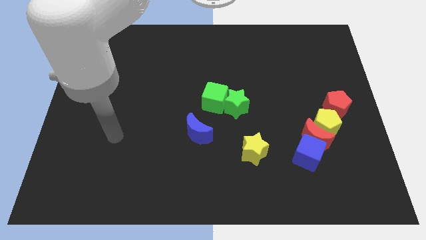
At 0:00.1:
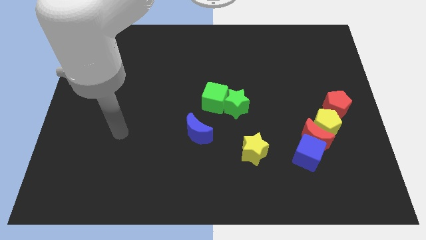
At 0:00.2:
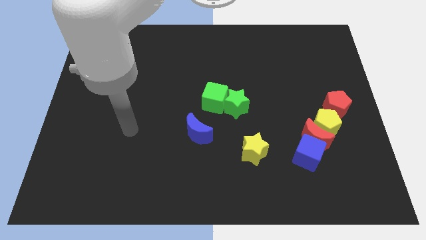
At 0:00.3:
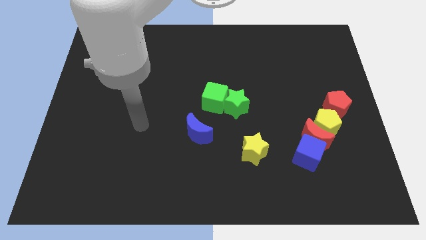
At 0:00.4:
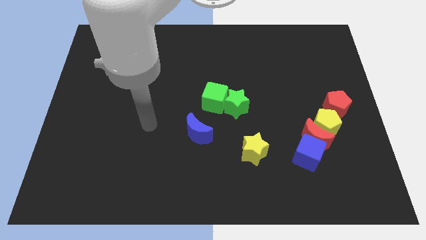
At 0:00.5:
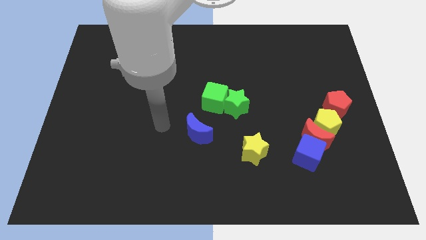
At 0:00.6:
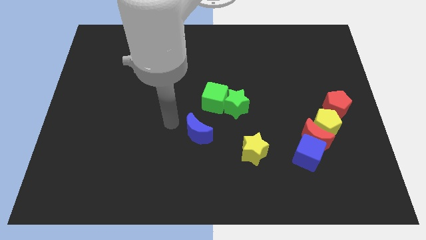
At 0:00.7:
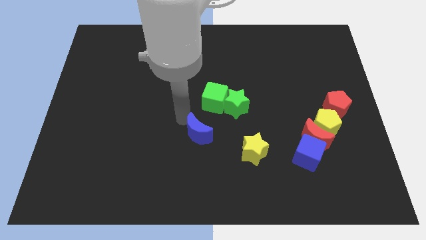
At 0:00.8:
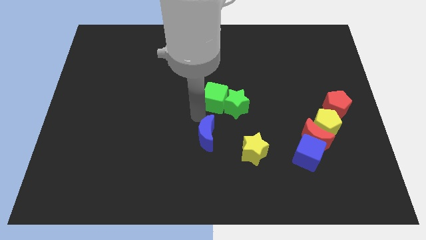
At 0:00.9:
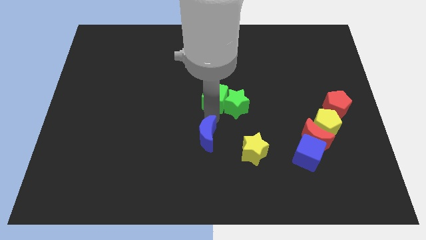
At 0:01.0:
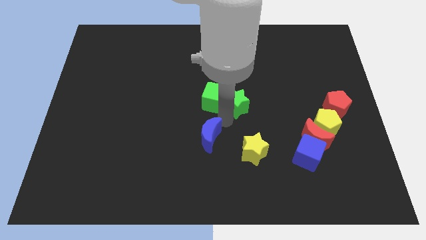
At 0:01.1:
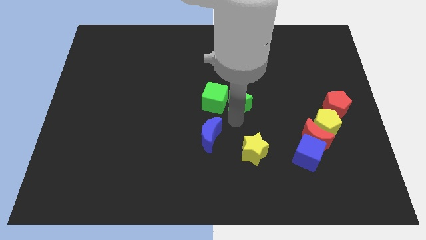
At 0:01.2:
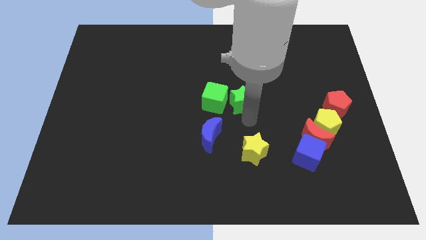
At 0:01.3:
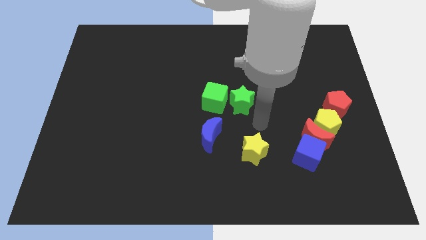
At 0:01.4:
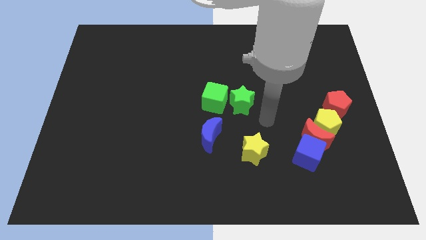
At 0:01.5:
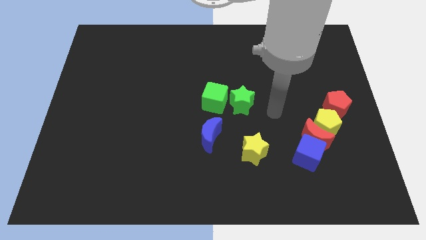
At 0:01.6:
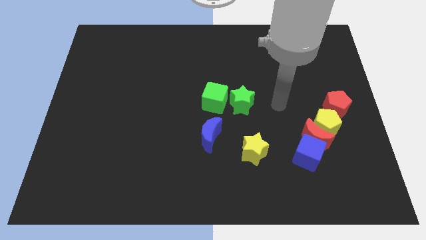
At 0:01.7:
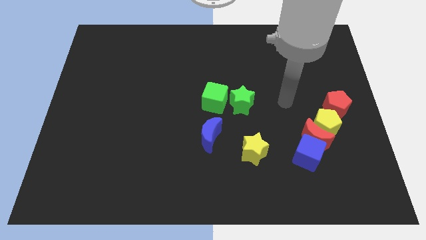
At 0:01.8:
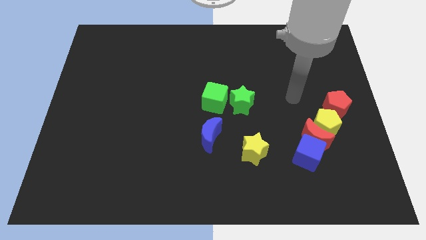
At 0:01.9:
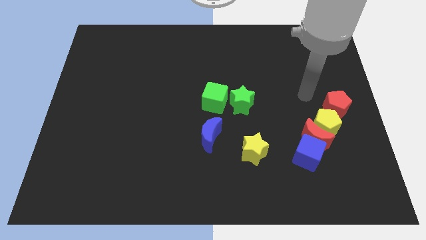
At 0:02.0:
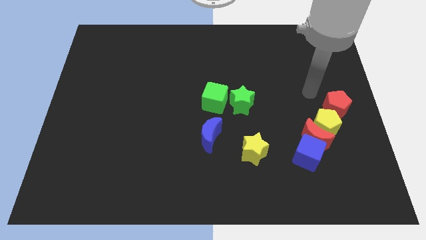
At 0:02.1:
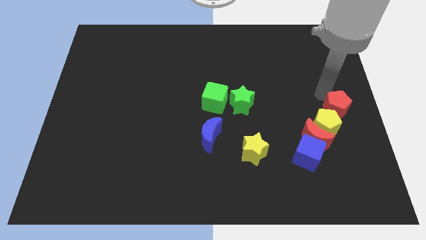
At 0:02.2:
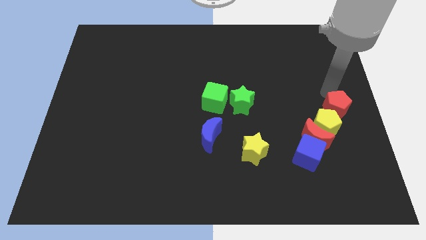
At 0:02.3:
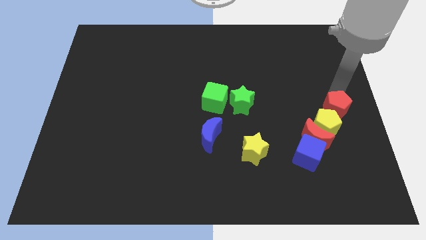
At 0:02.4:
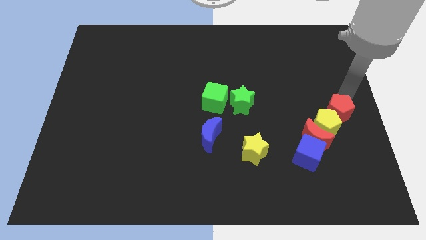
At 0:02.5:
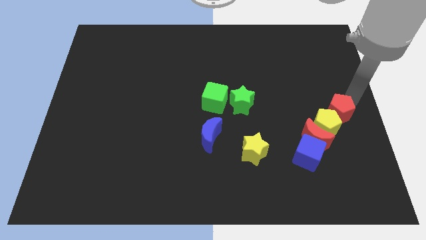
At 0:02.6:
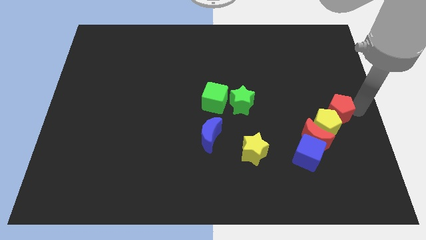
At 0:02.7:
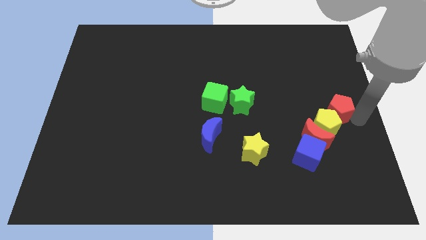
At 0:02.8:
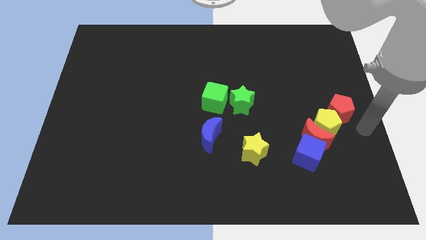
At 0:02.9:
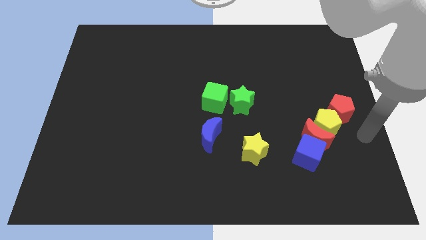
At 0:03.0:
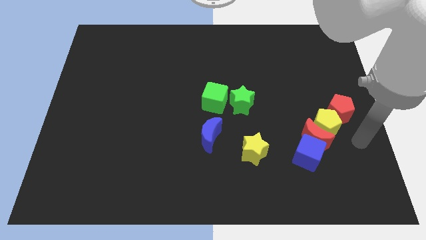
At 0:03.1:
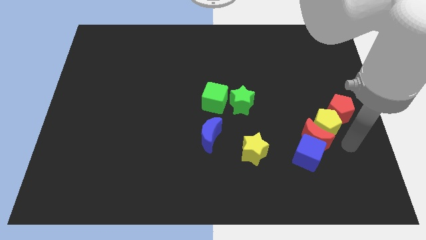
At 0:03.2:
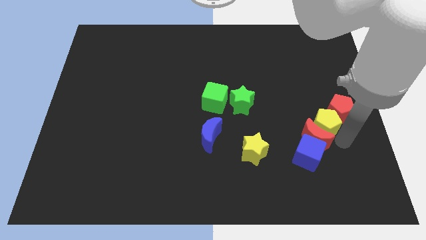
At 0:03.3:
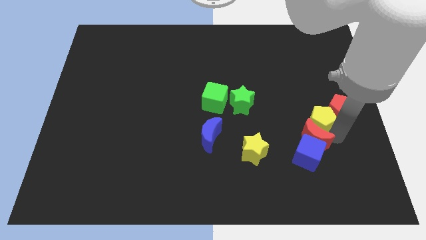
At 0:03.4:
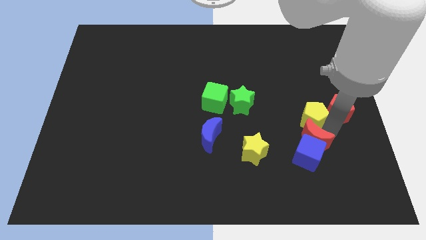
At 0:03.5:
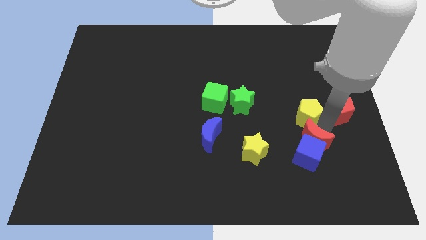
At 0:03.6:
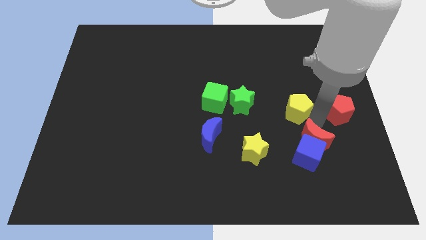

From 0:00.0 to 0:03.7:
push the yellow pentagon a little up and to the left diagonally

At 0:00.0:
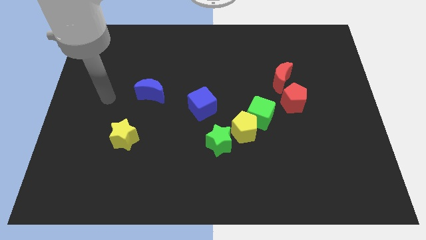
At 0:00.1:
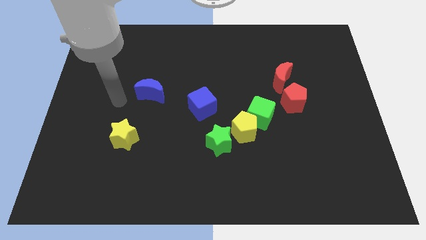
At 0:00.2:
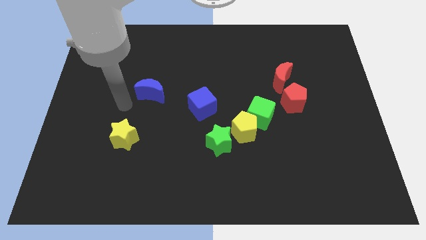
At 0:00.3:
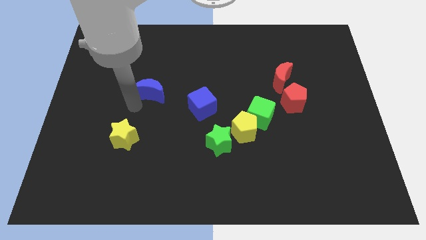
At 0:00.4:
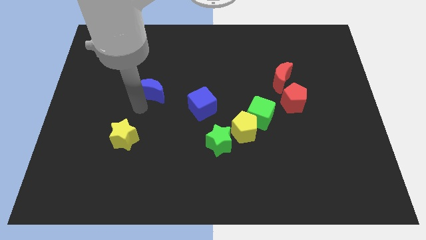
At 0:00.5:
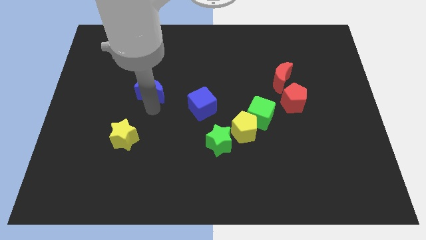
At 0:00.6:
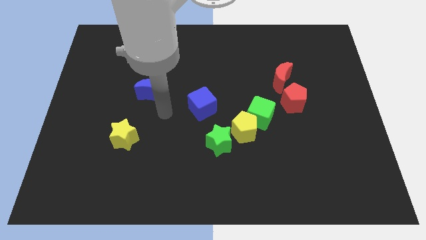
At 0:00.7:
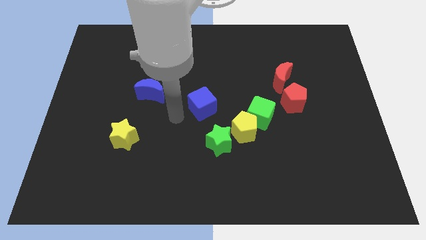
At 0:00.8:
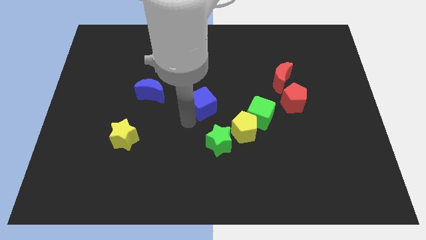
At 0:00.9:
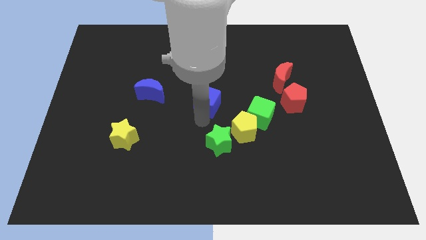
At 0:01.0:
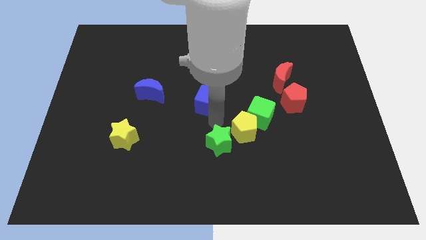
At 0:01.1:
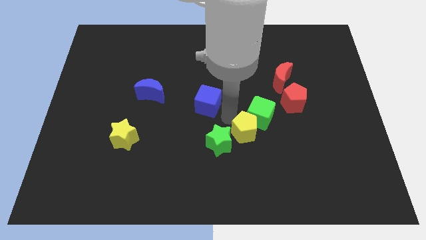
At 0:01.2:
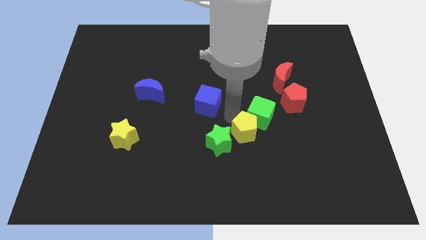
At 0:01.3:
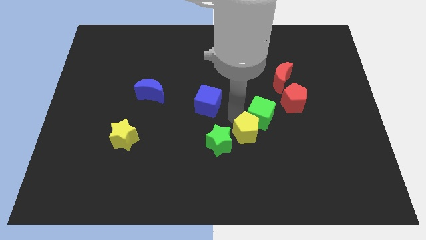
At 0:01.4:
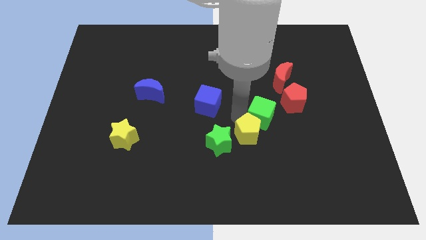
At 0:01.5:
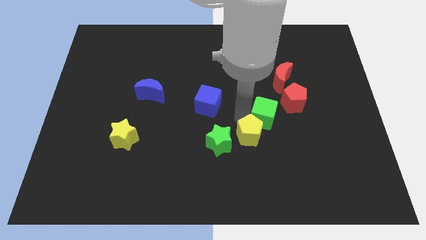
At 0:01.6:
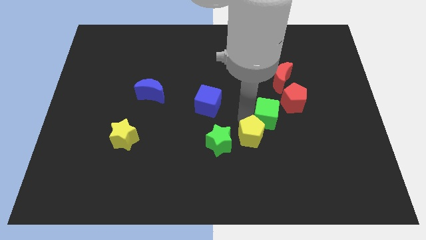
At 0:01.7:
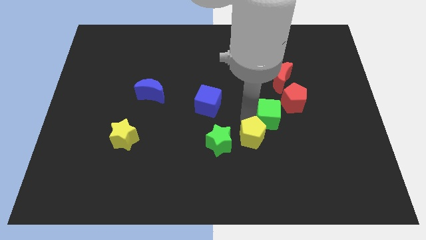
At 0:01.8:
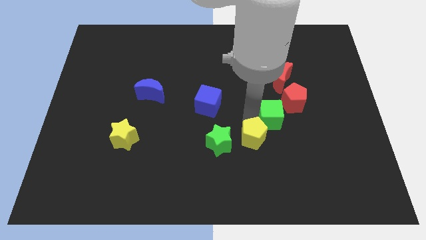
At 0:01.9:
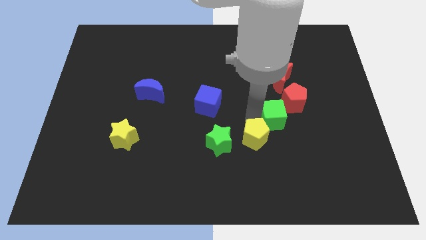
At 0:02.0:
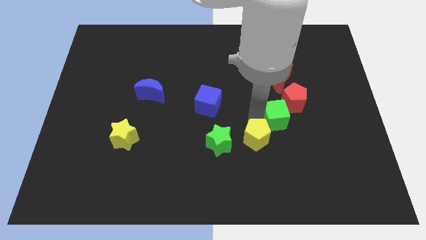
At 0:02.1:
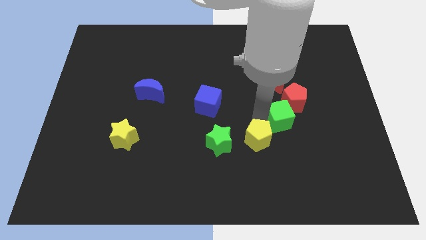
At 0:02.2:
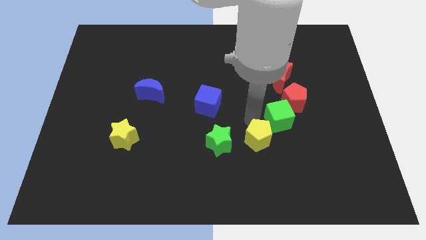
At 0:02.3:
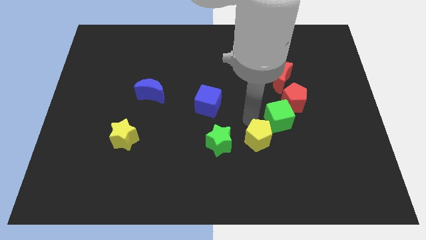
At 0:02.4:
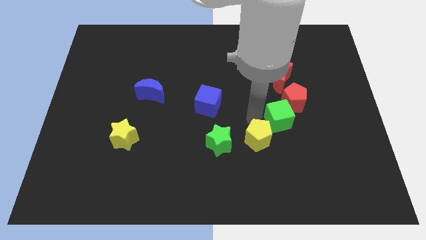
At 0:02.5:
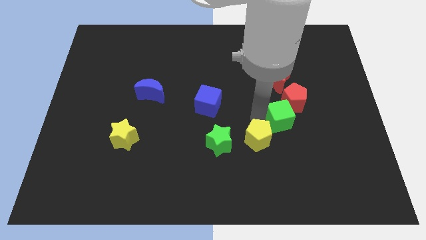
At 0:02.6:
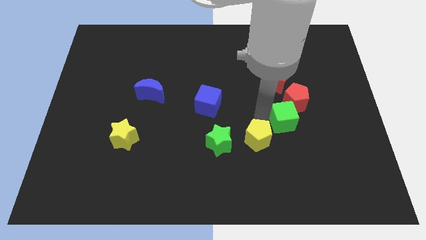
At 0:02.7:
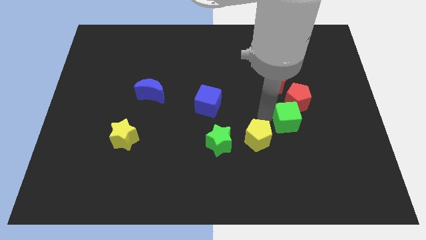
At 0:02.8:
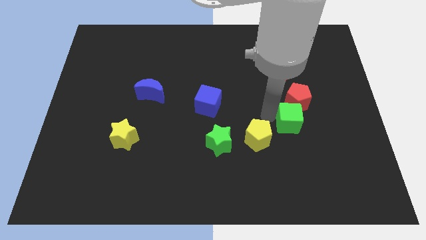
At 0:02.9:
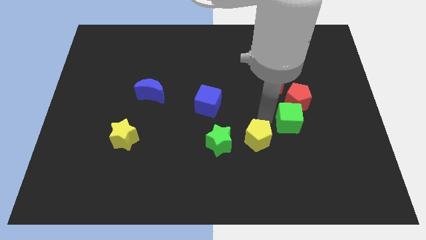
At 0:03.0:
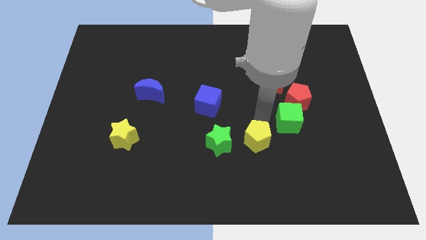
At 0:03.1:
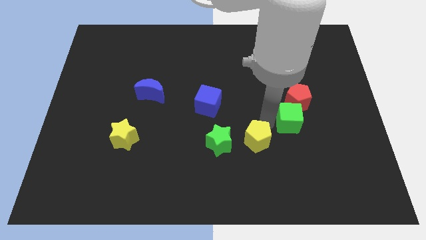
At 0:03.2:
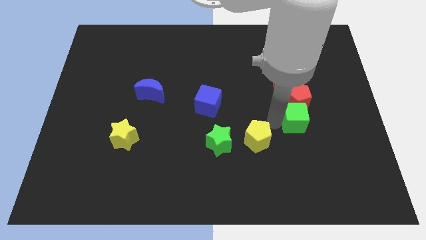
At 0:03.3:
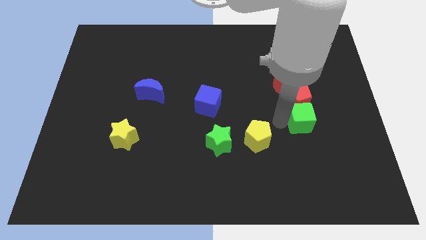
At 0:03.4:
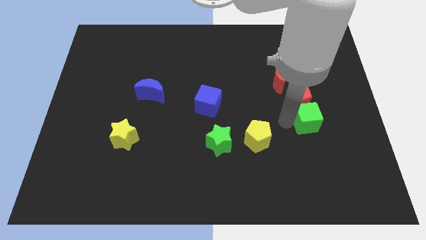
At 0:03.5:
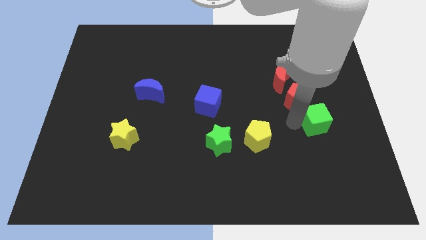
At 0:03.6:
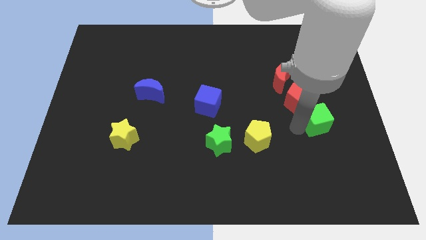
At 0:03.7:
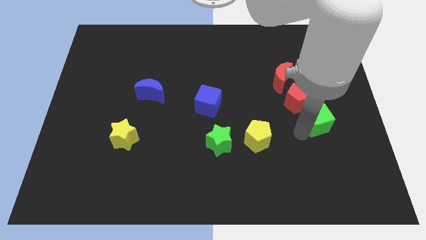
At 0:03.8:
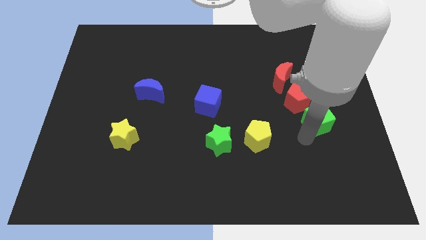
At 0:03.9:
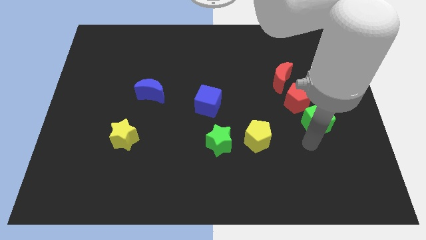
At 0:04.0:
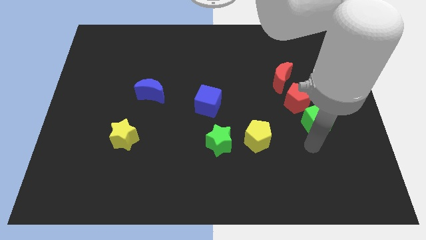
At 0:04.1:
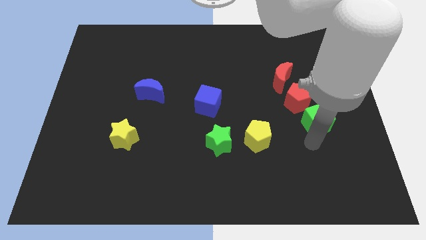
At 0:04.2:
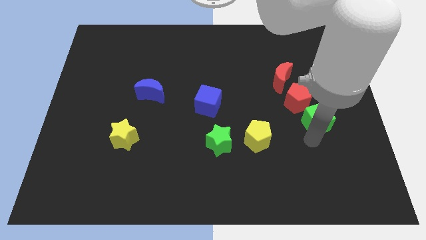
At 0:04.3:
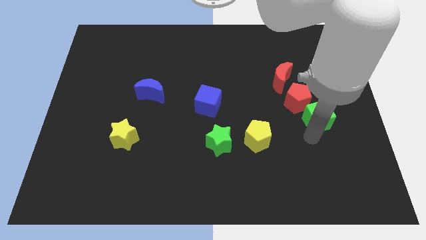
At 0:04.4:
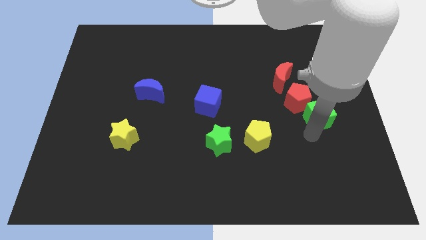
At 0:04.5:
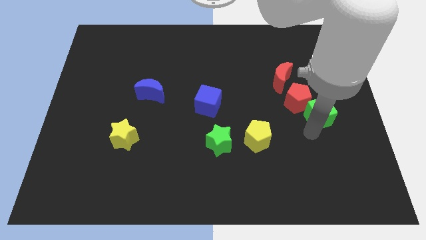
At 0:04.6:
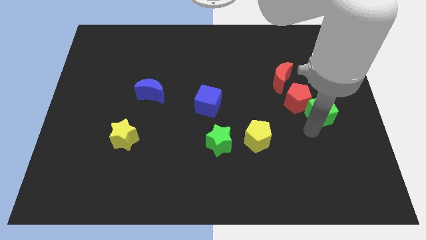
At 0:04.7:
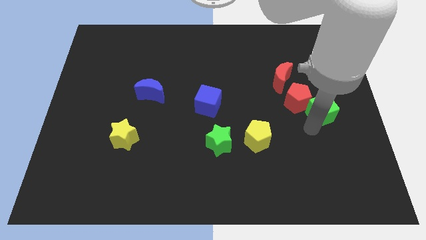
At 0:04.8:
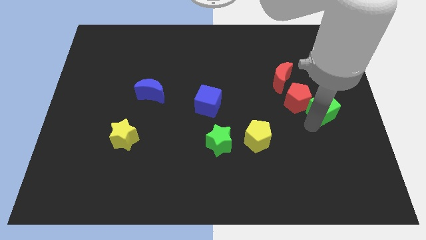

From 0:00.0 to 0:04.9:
push the green cube upwards and right diagonally a bit
